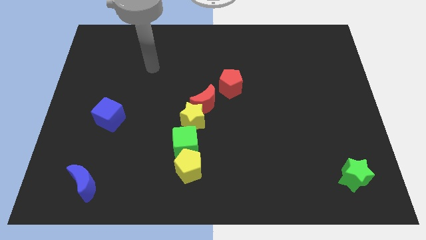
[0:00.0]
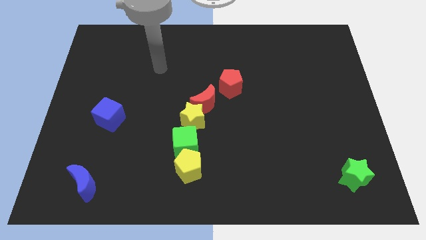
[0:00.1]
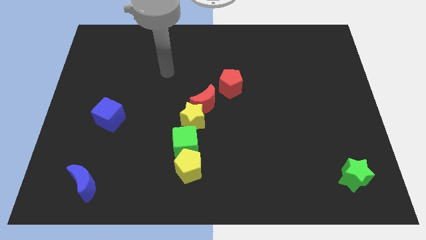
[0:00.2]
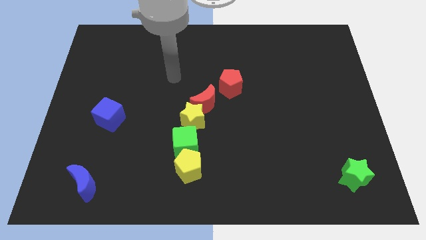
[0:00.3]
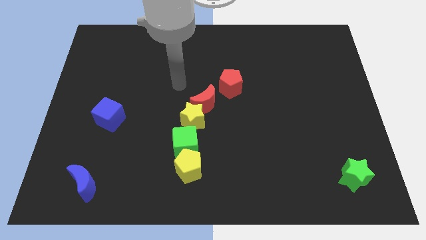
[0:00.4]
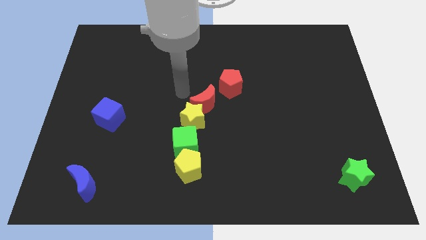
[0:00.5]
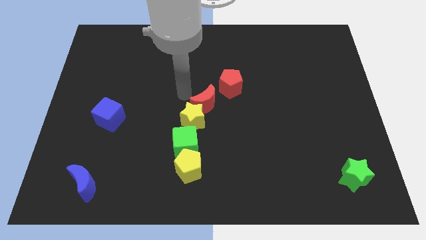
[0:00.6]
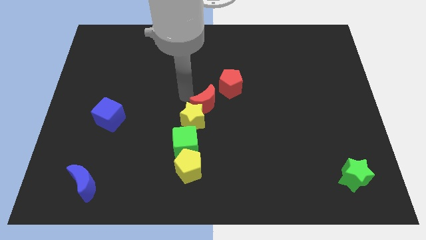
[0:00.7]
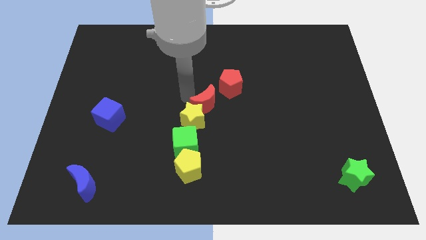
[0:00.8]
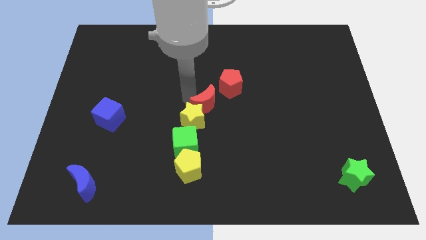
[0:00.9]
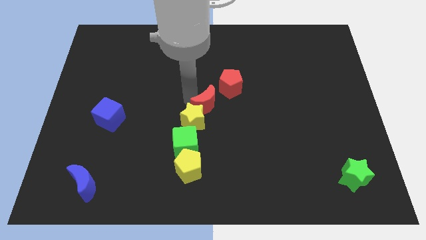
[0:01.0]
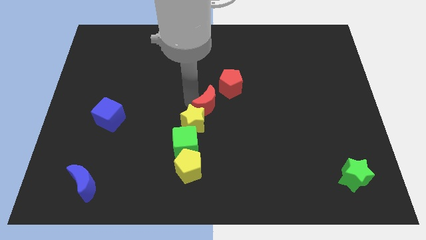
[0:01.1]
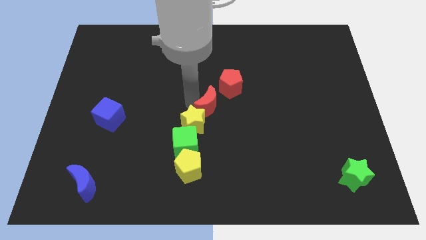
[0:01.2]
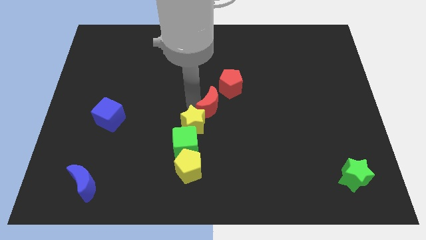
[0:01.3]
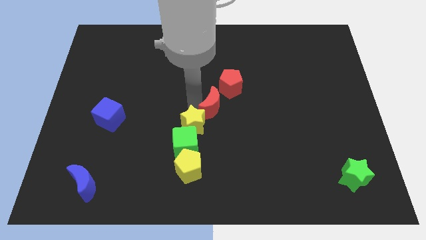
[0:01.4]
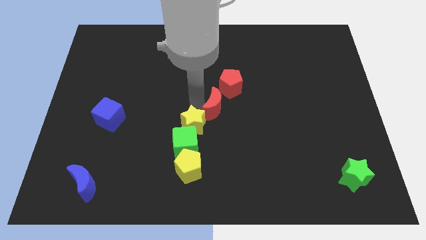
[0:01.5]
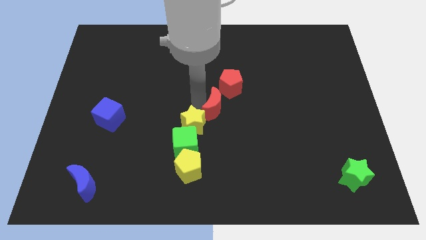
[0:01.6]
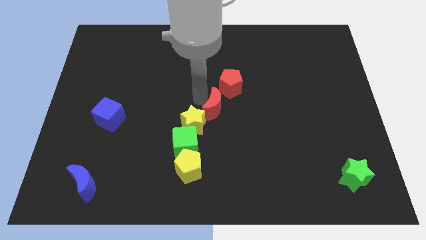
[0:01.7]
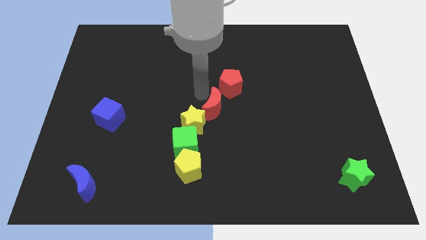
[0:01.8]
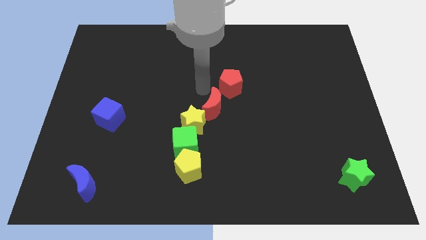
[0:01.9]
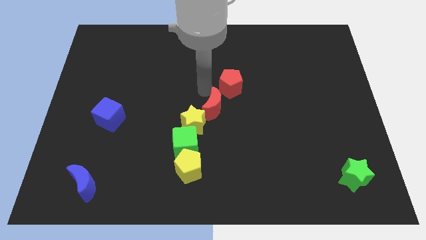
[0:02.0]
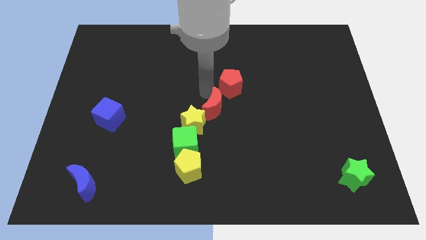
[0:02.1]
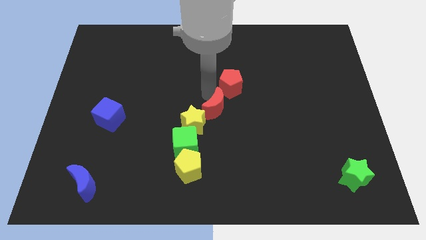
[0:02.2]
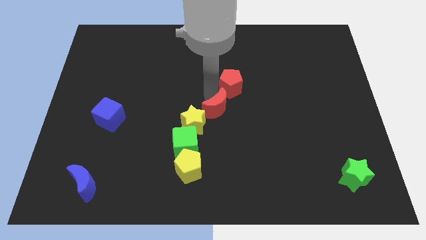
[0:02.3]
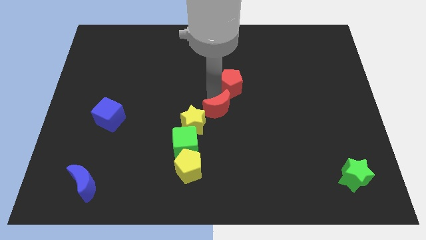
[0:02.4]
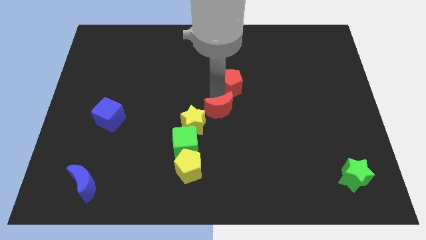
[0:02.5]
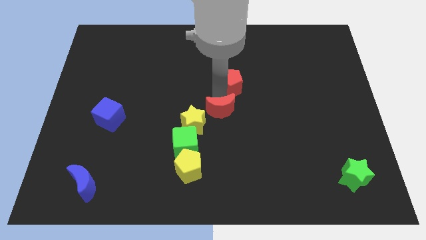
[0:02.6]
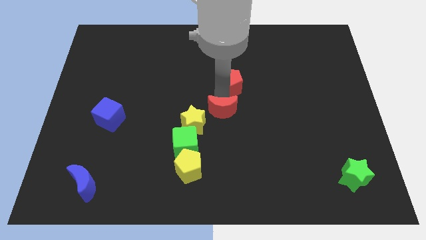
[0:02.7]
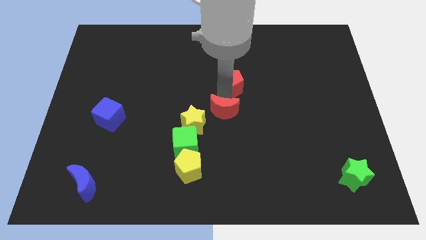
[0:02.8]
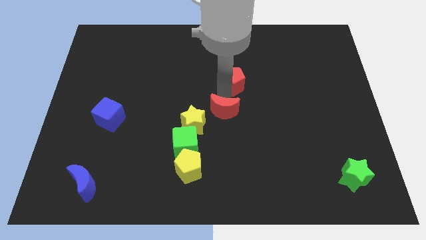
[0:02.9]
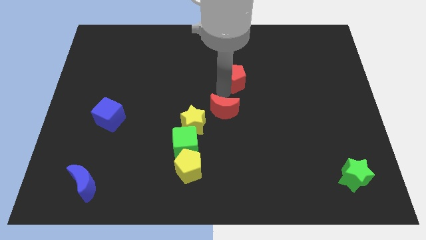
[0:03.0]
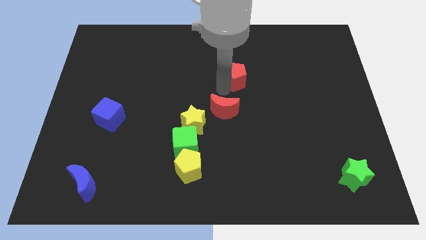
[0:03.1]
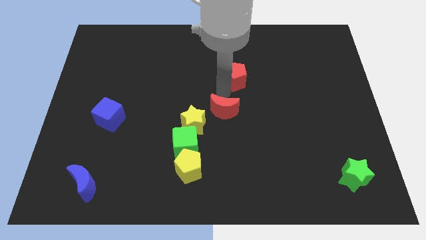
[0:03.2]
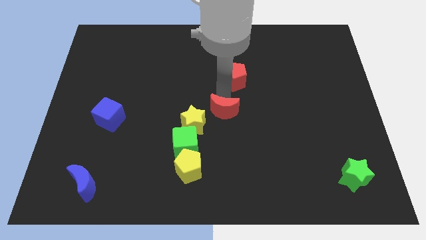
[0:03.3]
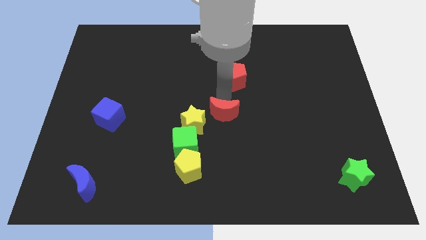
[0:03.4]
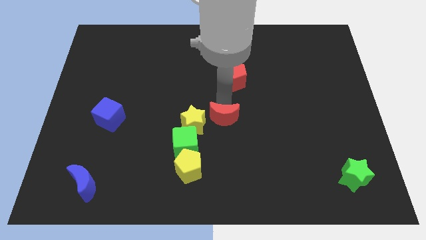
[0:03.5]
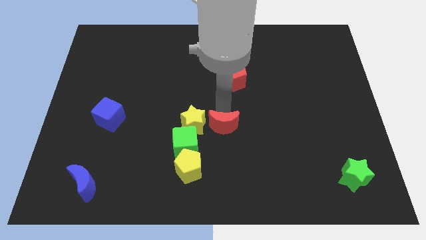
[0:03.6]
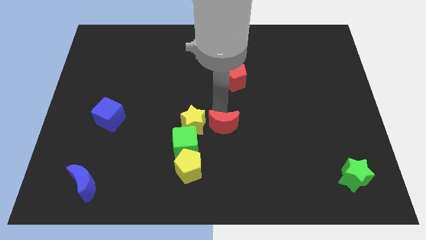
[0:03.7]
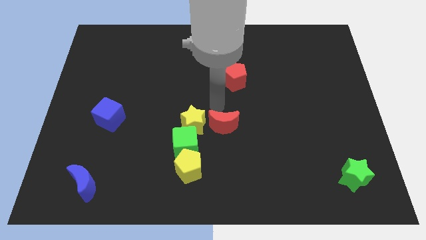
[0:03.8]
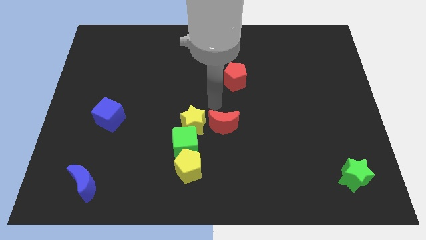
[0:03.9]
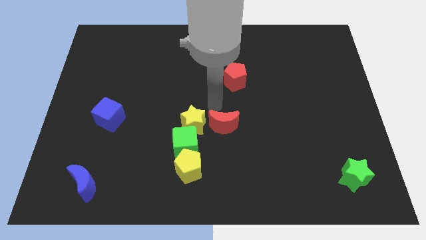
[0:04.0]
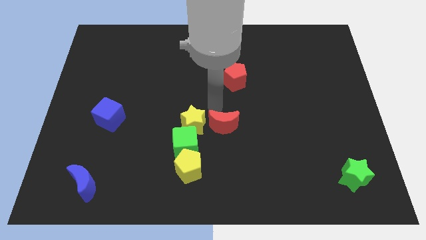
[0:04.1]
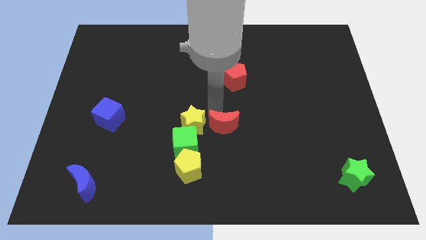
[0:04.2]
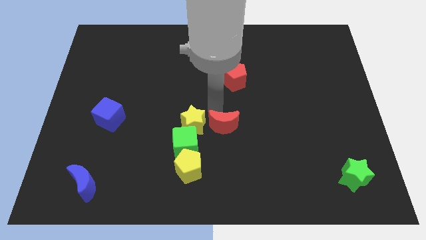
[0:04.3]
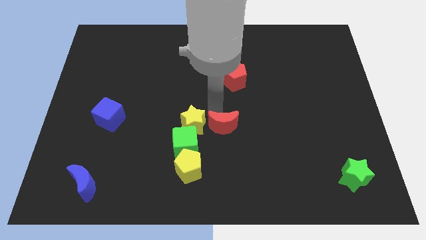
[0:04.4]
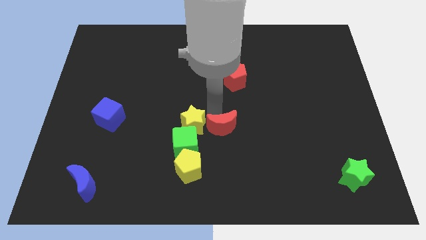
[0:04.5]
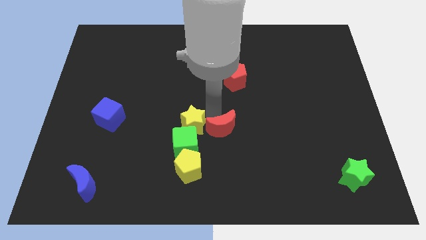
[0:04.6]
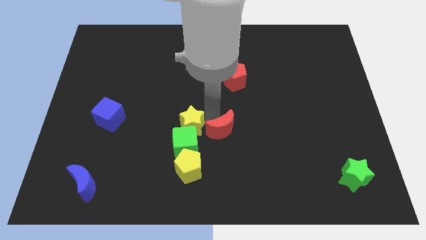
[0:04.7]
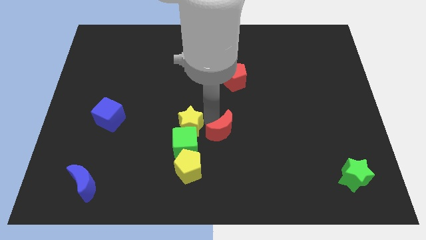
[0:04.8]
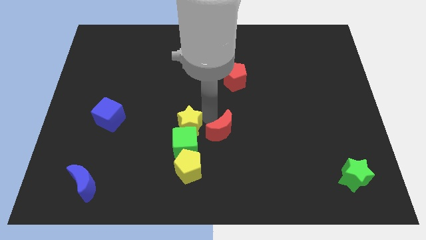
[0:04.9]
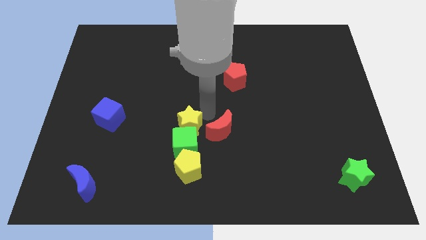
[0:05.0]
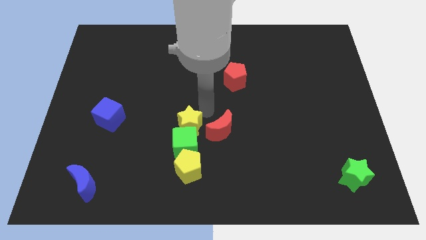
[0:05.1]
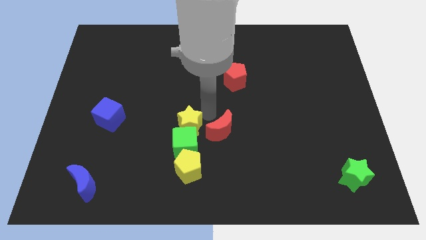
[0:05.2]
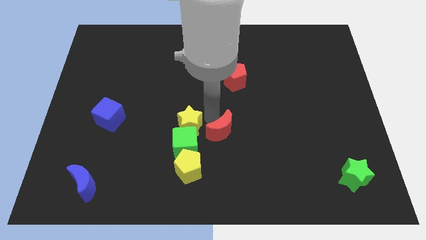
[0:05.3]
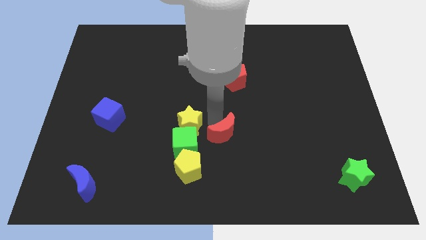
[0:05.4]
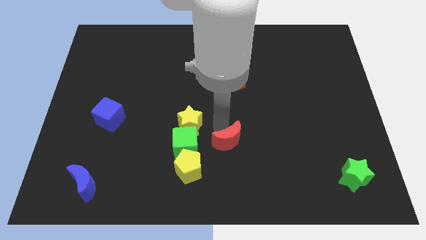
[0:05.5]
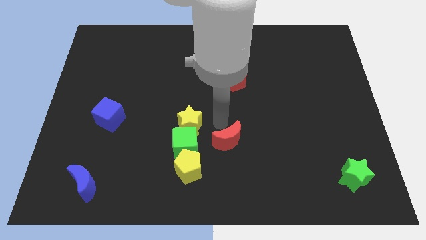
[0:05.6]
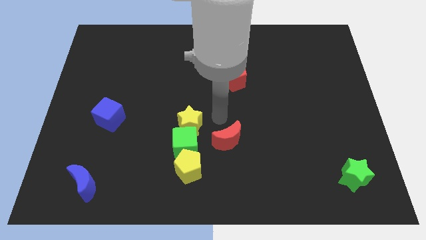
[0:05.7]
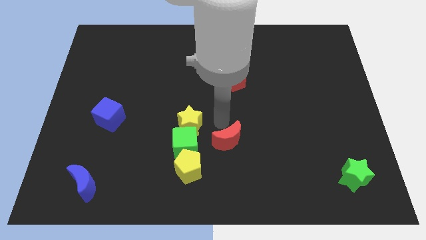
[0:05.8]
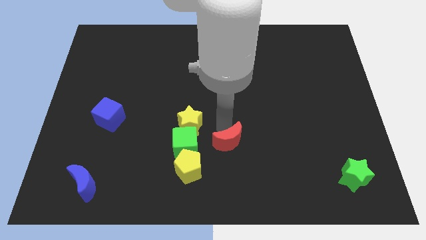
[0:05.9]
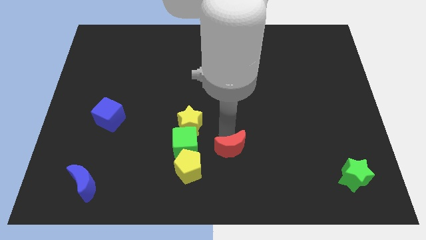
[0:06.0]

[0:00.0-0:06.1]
push the red moon to the right of the yellow pentagon

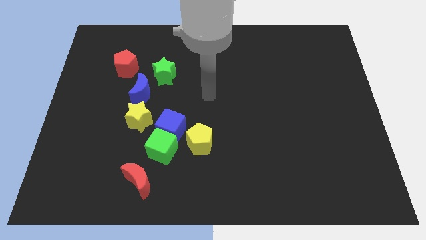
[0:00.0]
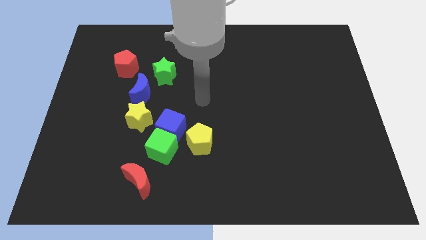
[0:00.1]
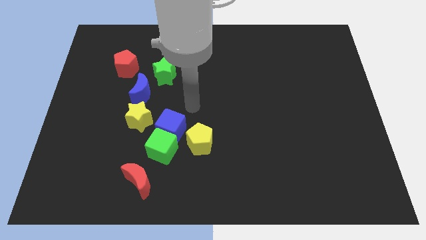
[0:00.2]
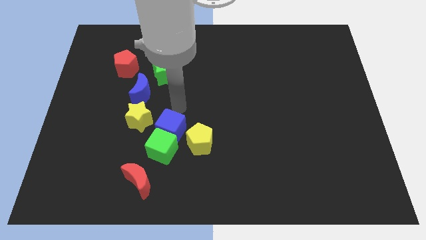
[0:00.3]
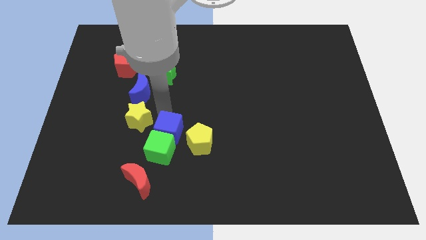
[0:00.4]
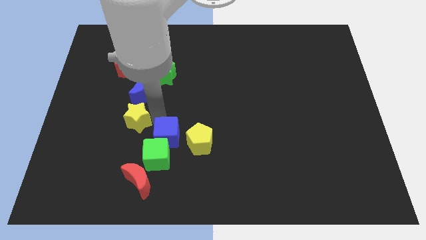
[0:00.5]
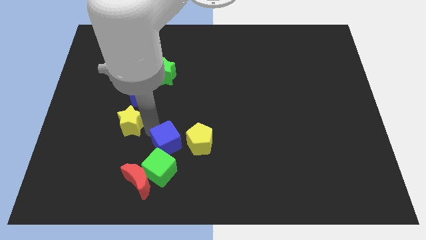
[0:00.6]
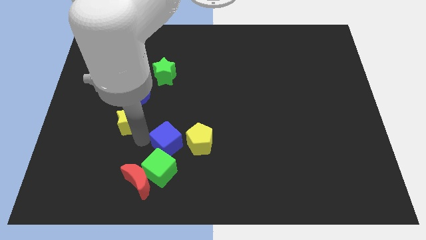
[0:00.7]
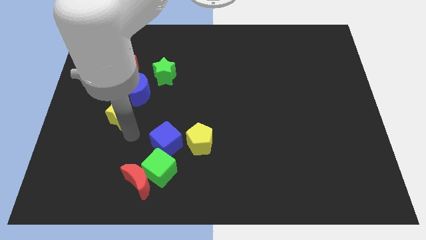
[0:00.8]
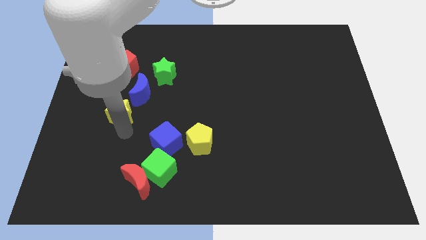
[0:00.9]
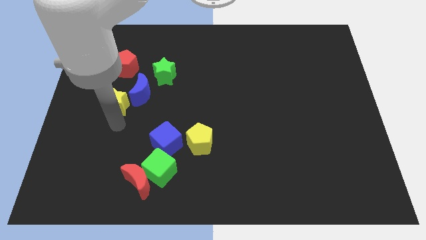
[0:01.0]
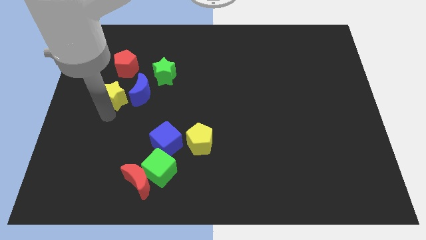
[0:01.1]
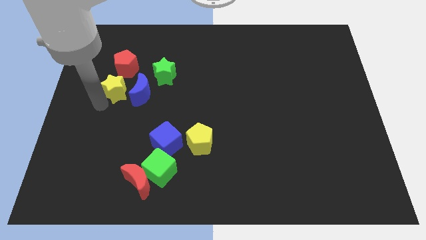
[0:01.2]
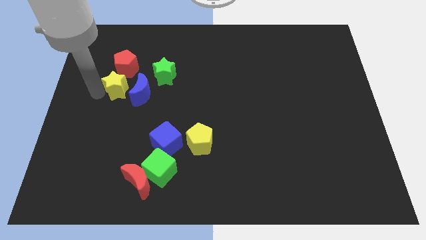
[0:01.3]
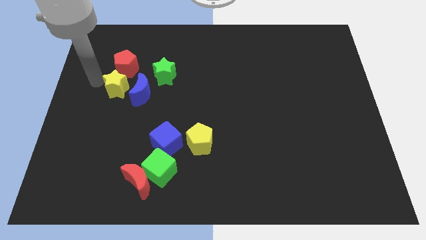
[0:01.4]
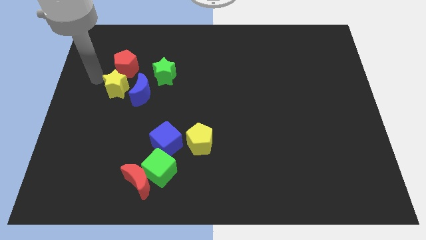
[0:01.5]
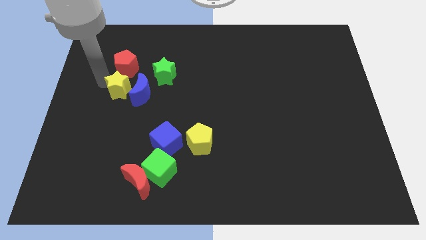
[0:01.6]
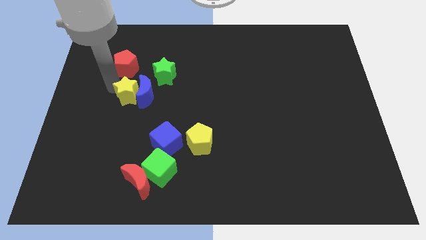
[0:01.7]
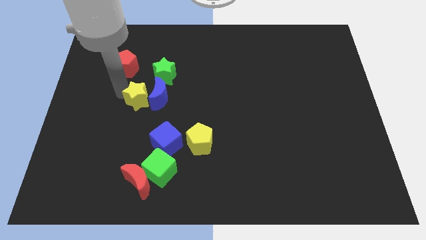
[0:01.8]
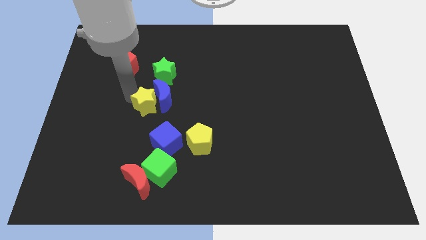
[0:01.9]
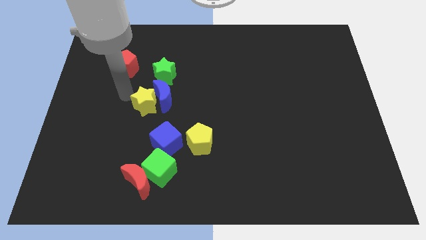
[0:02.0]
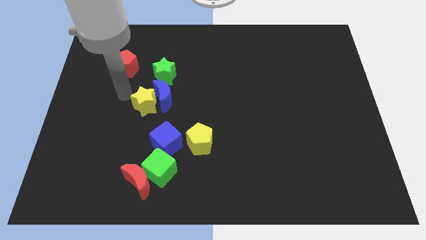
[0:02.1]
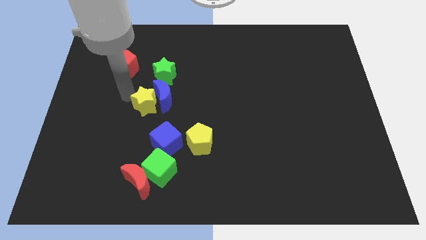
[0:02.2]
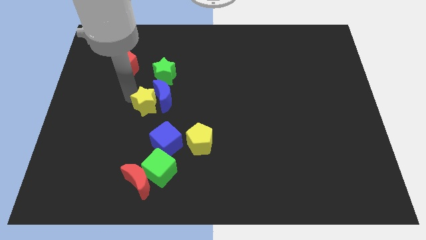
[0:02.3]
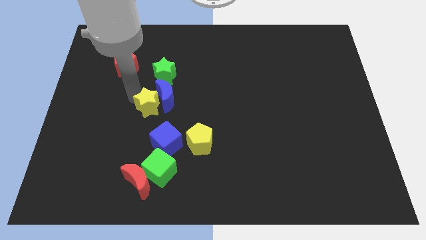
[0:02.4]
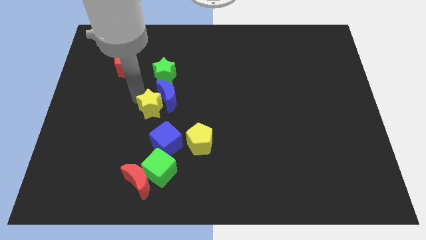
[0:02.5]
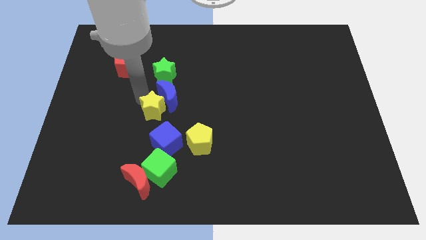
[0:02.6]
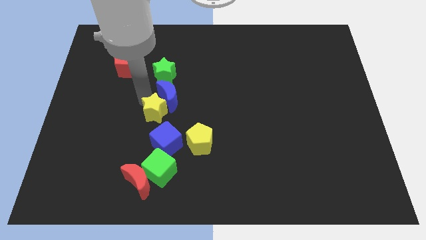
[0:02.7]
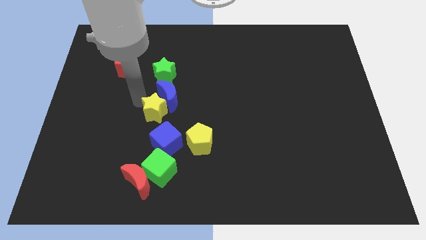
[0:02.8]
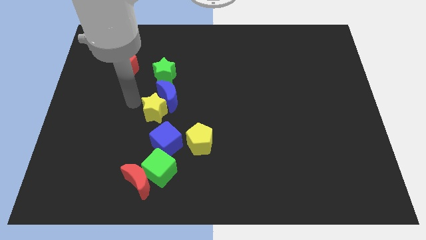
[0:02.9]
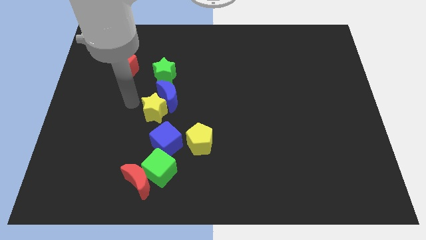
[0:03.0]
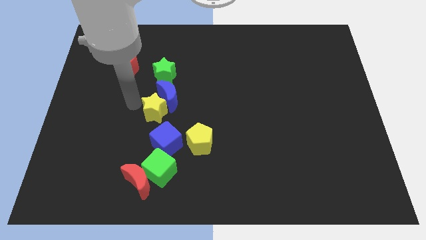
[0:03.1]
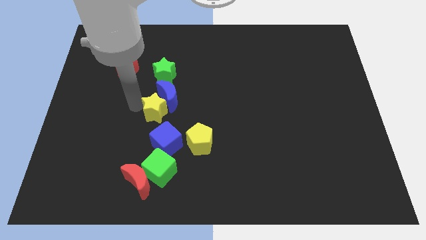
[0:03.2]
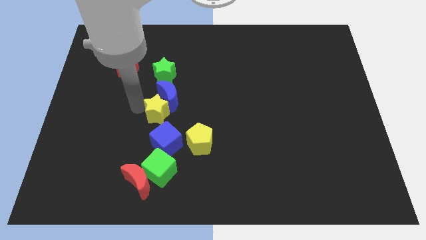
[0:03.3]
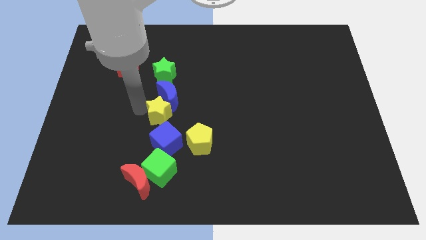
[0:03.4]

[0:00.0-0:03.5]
push the yellow star diagonally up and to the left of the yellow pentagon
